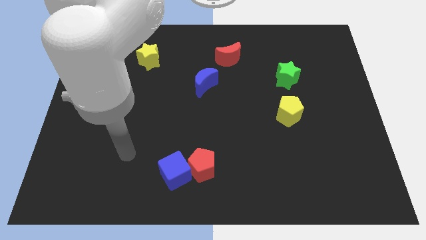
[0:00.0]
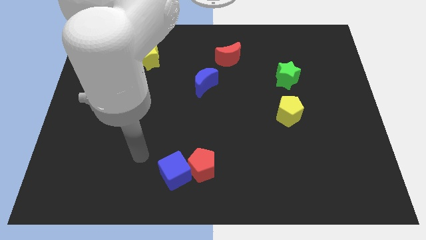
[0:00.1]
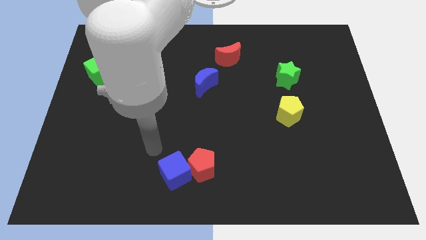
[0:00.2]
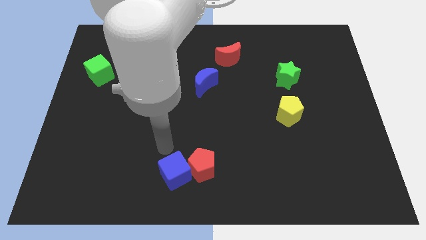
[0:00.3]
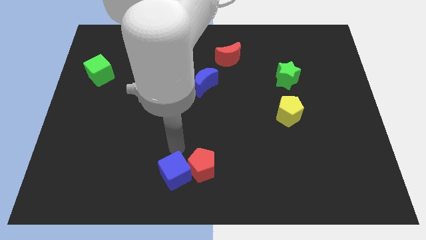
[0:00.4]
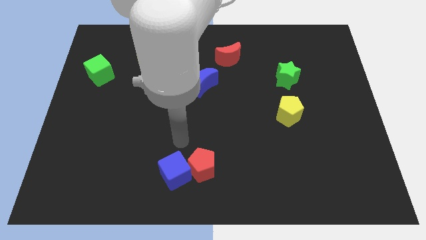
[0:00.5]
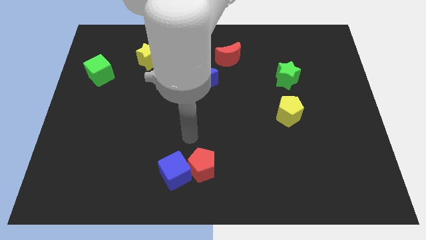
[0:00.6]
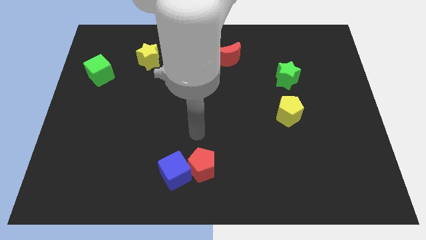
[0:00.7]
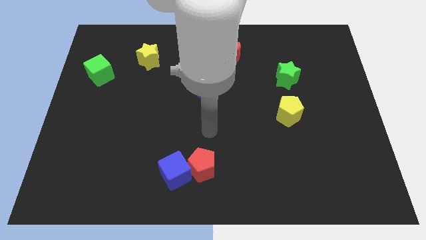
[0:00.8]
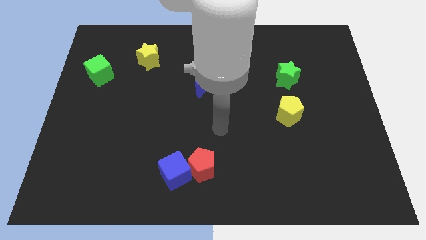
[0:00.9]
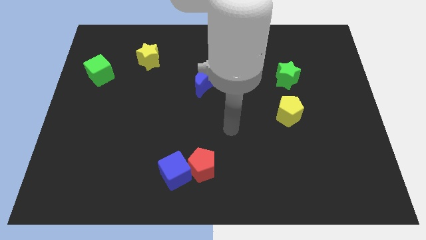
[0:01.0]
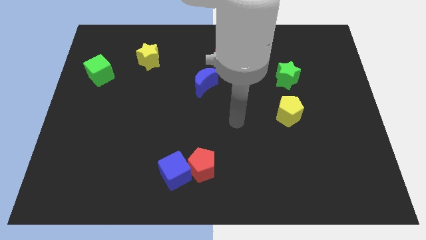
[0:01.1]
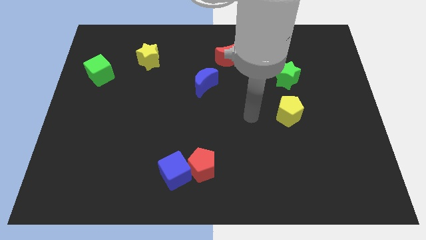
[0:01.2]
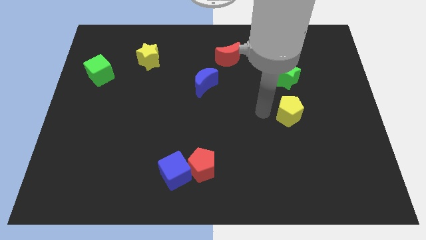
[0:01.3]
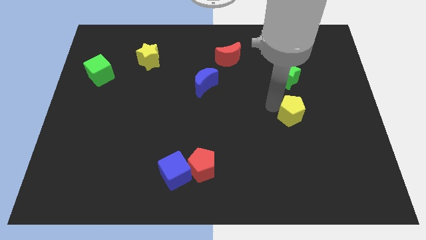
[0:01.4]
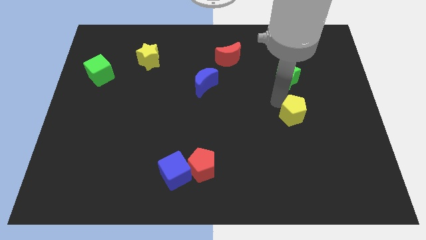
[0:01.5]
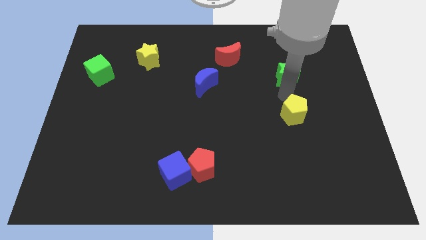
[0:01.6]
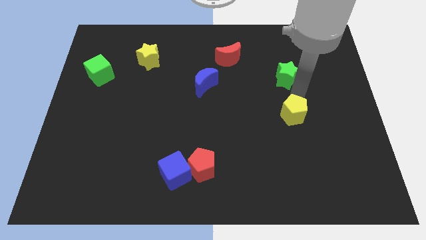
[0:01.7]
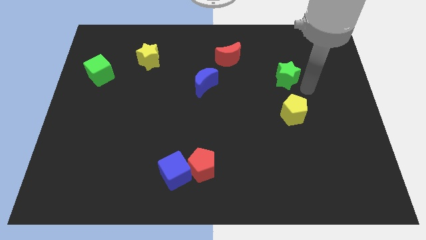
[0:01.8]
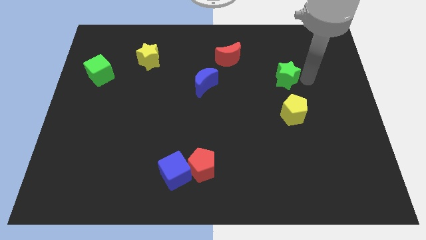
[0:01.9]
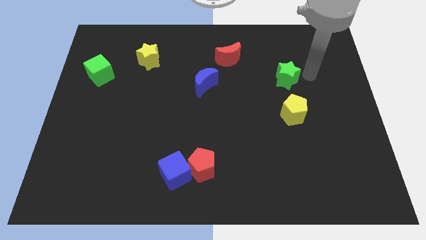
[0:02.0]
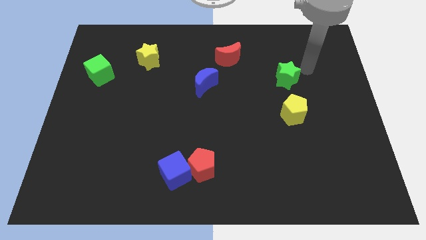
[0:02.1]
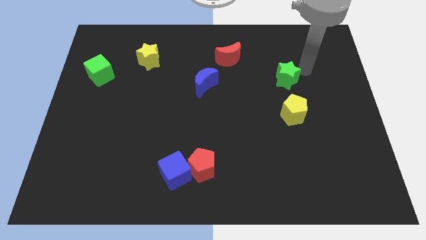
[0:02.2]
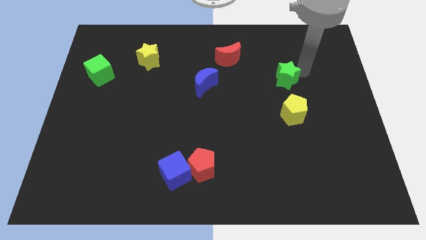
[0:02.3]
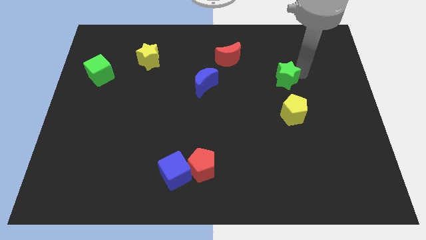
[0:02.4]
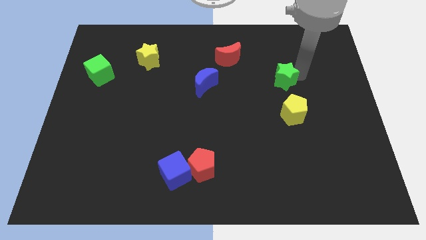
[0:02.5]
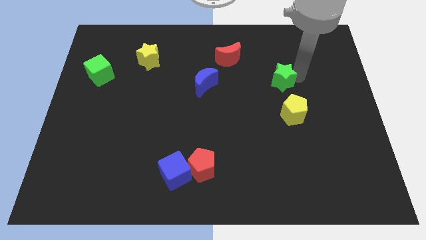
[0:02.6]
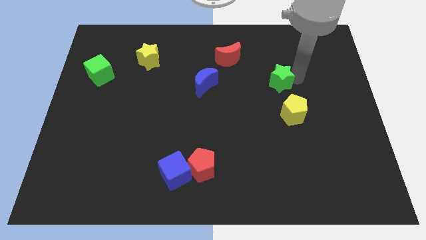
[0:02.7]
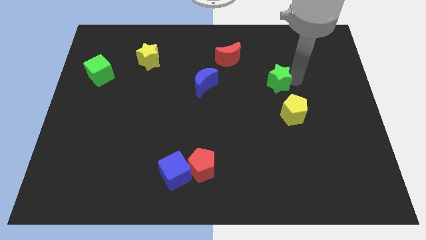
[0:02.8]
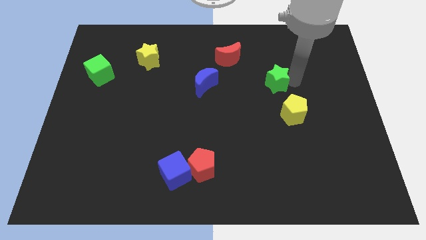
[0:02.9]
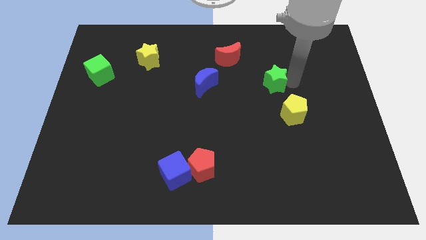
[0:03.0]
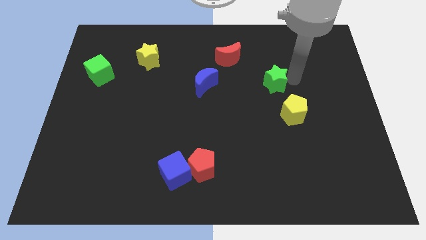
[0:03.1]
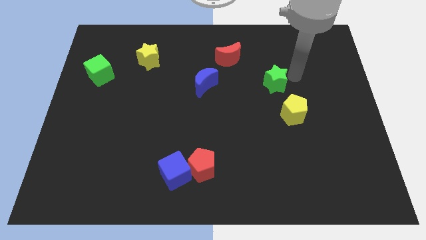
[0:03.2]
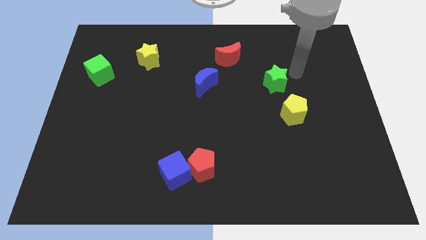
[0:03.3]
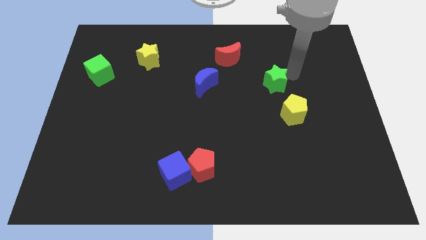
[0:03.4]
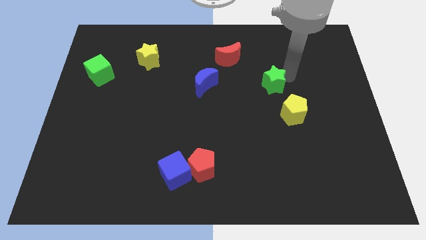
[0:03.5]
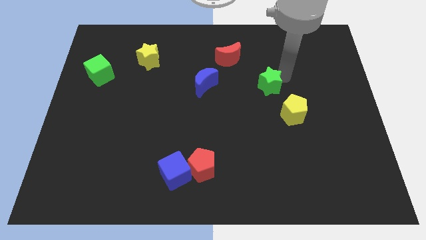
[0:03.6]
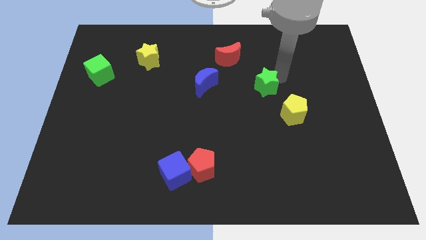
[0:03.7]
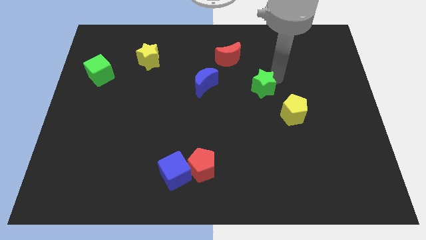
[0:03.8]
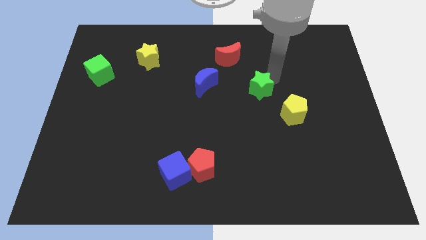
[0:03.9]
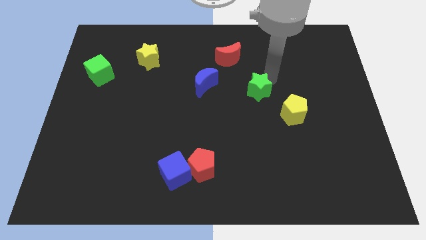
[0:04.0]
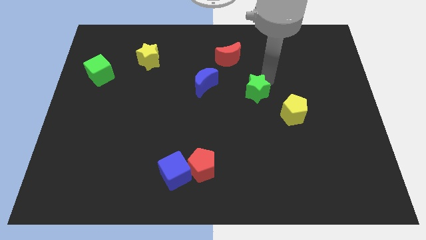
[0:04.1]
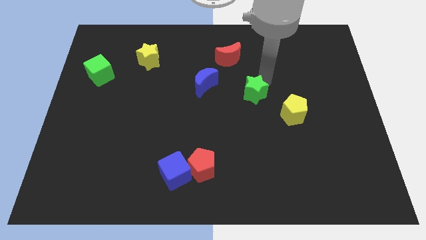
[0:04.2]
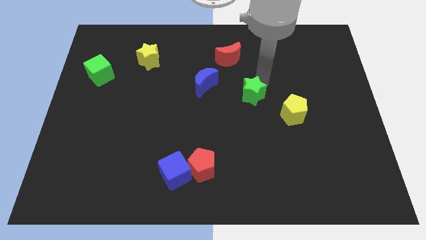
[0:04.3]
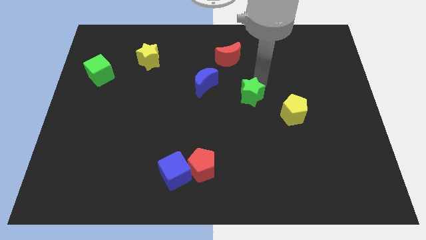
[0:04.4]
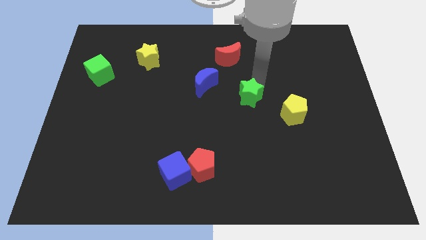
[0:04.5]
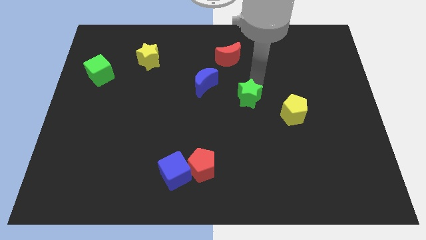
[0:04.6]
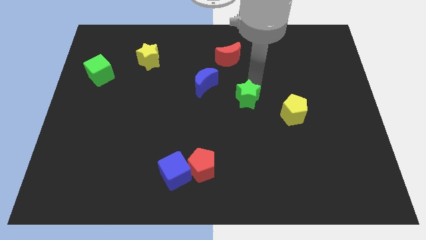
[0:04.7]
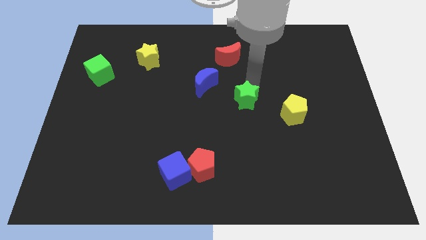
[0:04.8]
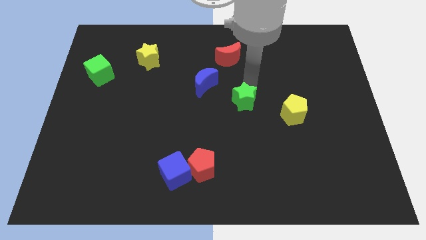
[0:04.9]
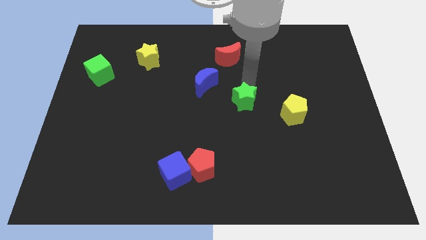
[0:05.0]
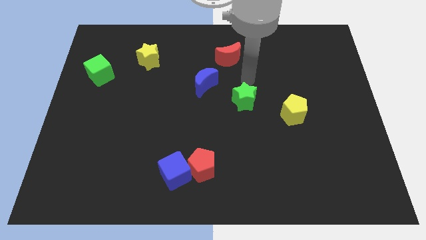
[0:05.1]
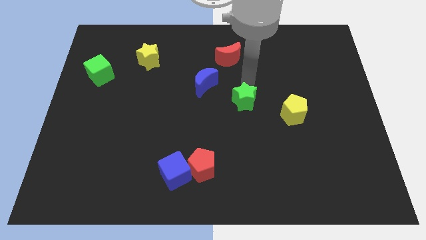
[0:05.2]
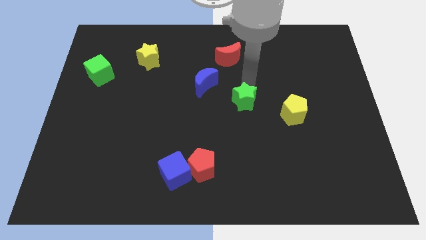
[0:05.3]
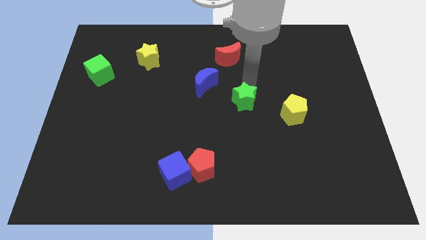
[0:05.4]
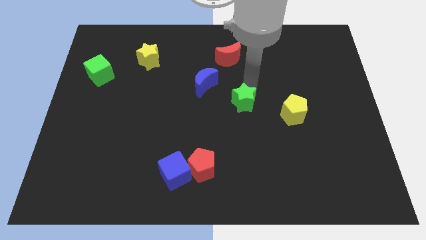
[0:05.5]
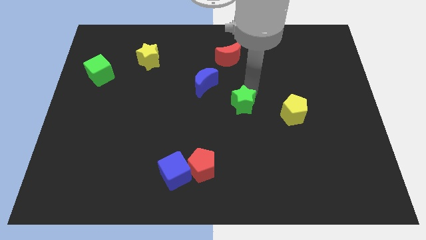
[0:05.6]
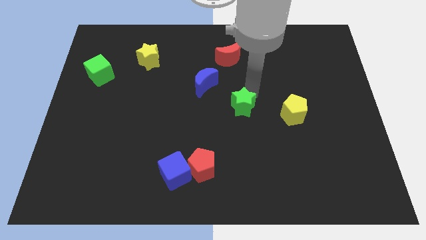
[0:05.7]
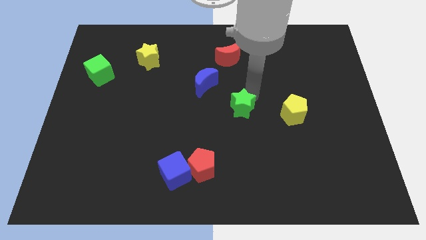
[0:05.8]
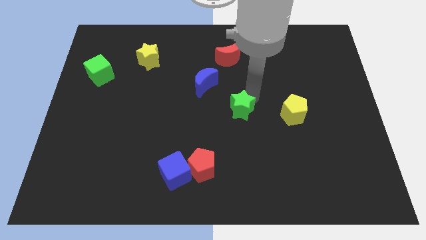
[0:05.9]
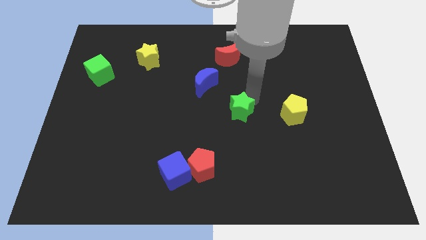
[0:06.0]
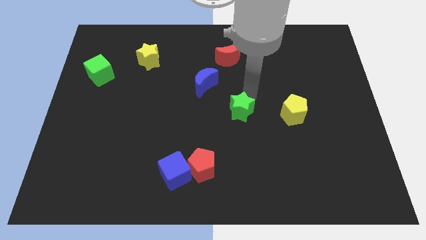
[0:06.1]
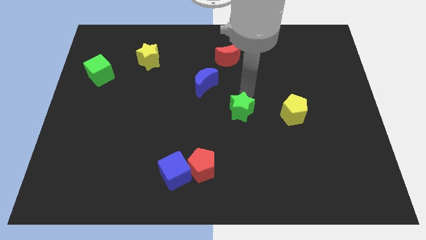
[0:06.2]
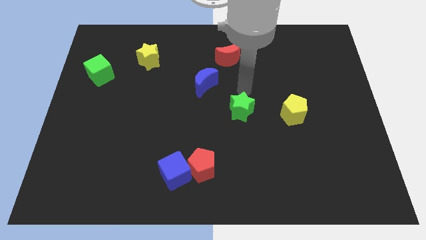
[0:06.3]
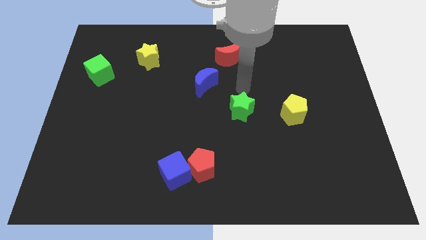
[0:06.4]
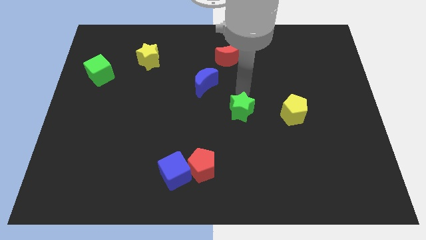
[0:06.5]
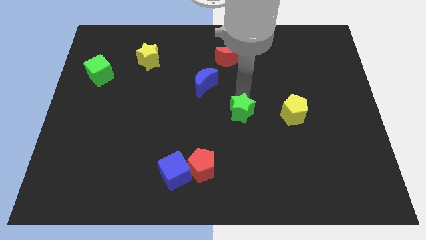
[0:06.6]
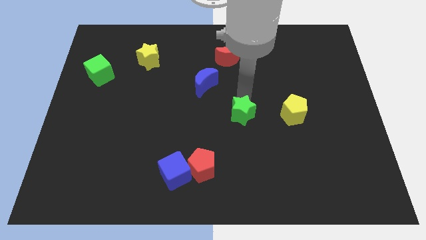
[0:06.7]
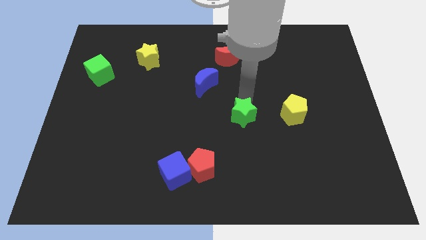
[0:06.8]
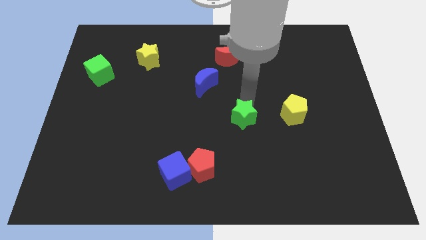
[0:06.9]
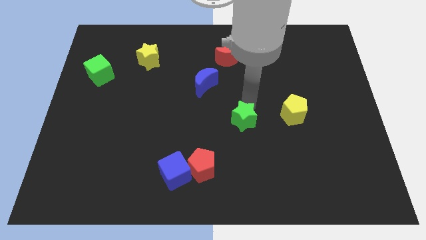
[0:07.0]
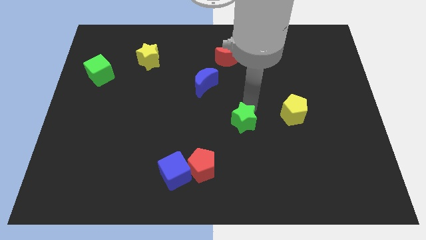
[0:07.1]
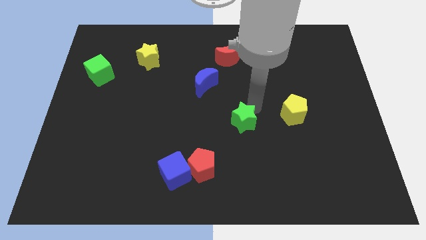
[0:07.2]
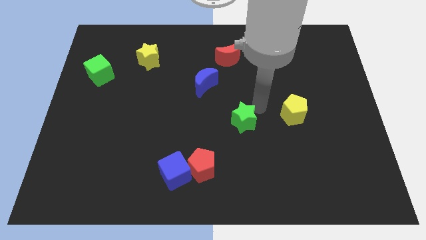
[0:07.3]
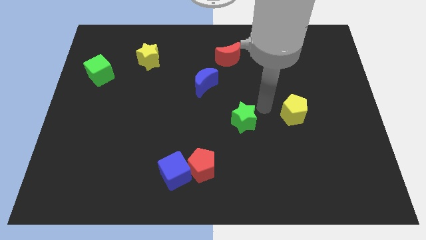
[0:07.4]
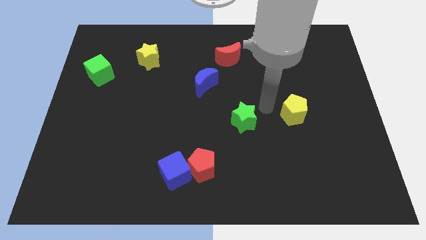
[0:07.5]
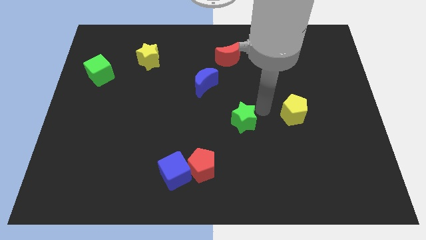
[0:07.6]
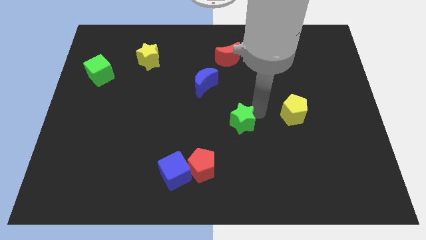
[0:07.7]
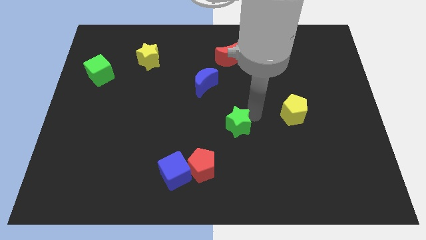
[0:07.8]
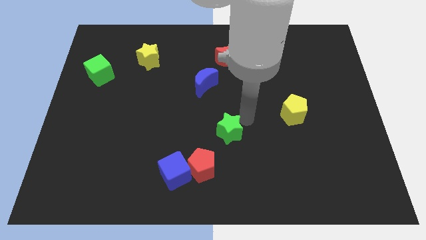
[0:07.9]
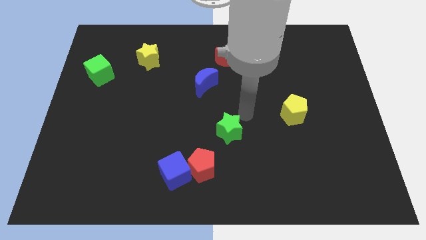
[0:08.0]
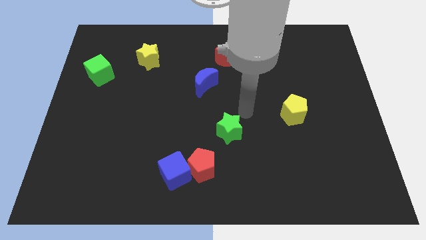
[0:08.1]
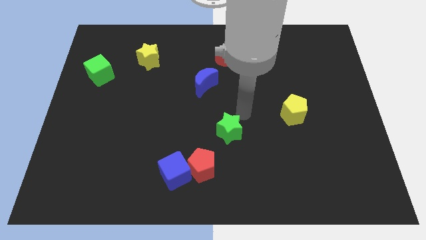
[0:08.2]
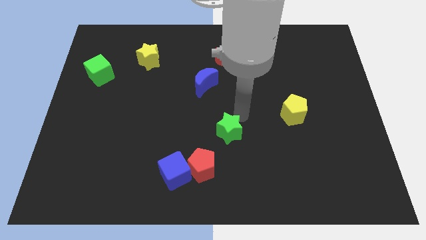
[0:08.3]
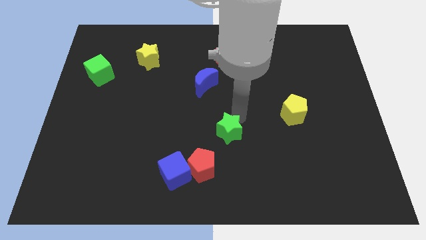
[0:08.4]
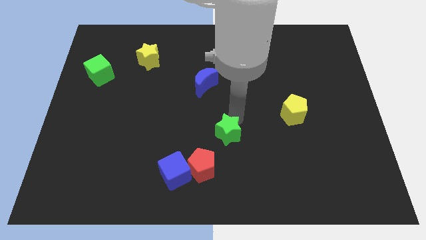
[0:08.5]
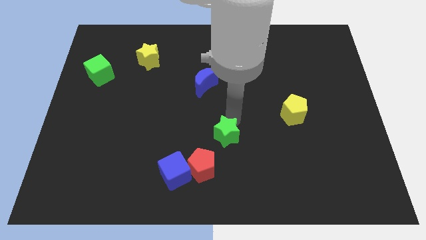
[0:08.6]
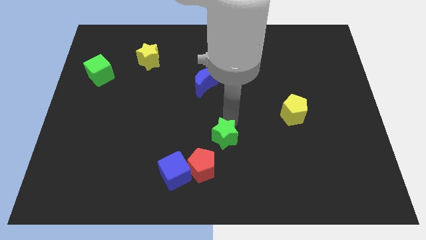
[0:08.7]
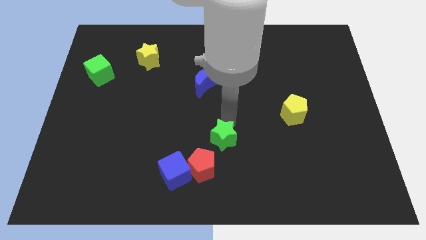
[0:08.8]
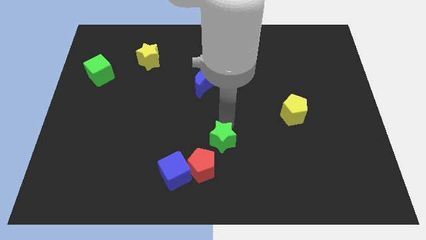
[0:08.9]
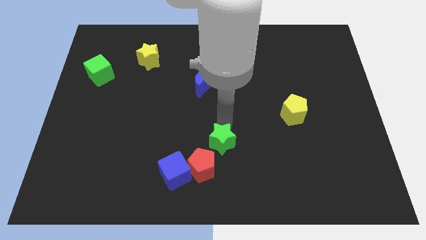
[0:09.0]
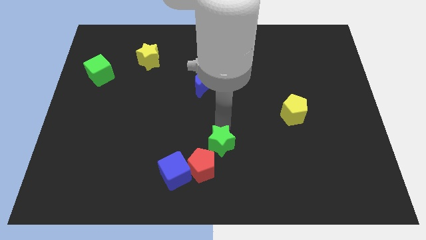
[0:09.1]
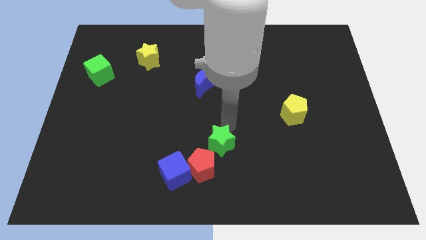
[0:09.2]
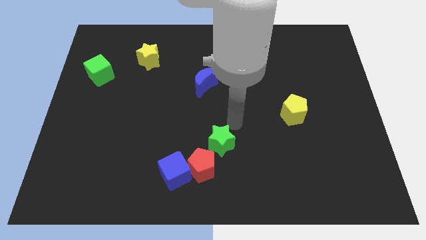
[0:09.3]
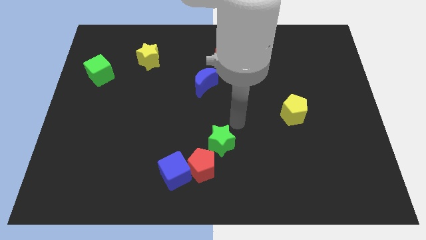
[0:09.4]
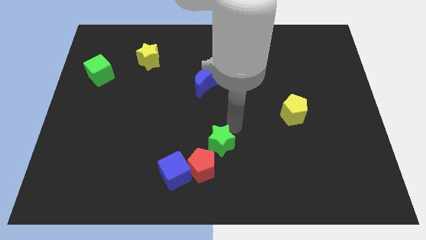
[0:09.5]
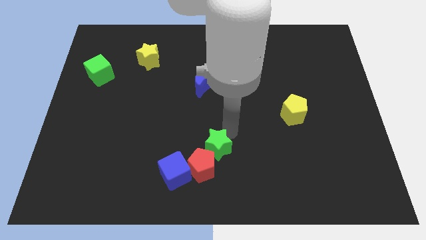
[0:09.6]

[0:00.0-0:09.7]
push the green star close to the red pentagon
